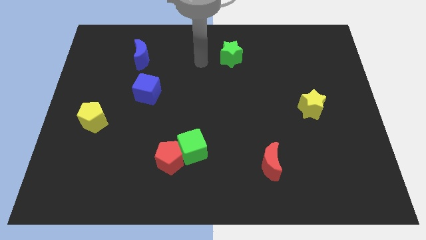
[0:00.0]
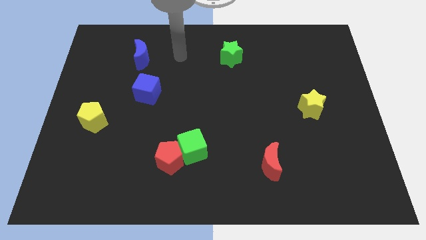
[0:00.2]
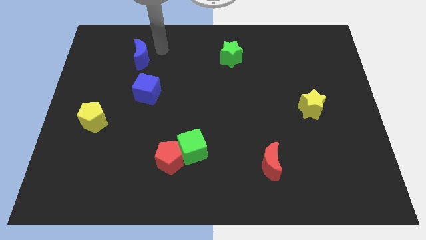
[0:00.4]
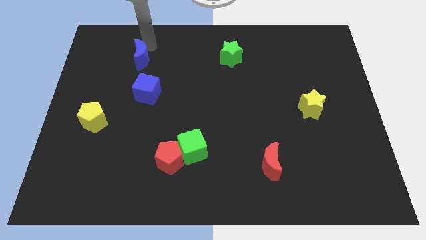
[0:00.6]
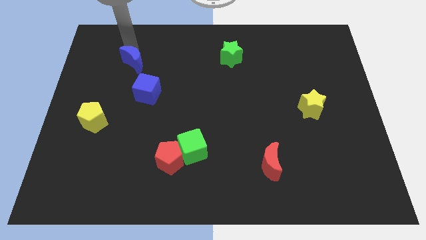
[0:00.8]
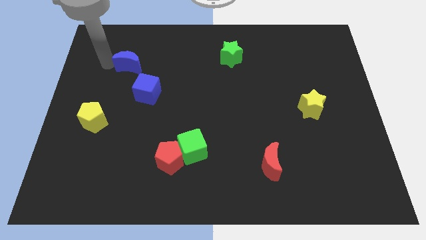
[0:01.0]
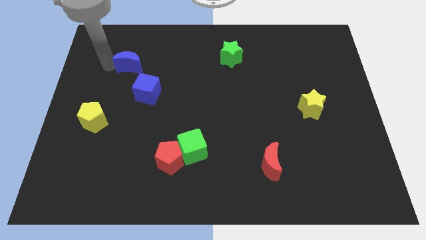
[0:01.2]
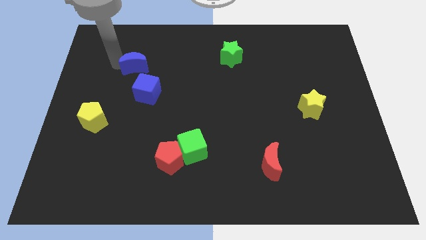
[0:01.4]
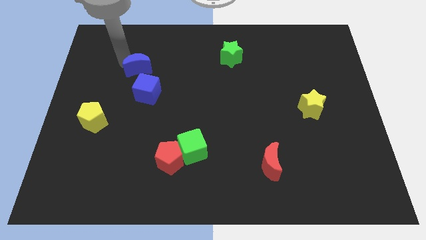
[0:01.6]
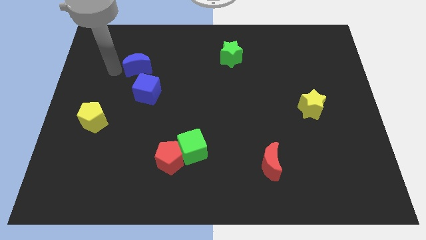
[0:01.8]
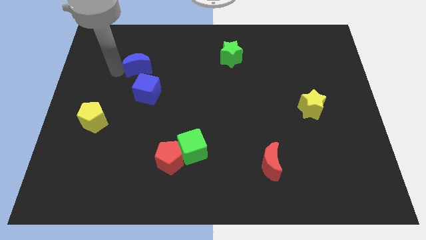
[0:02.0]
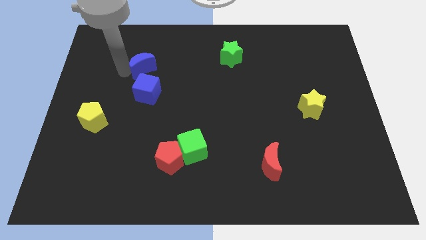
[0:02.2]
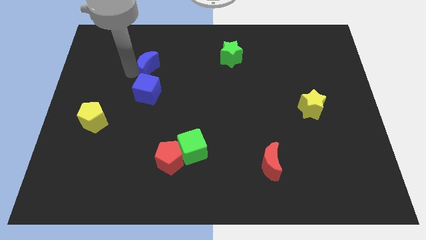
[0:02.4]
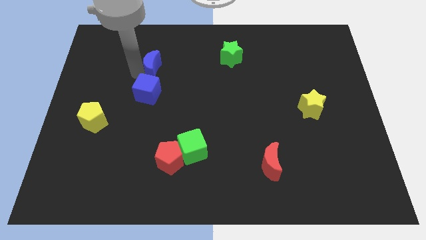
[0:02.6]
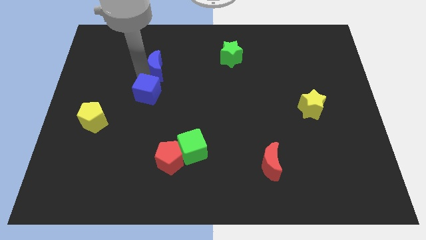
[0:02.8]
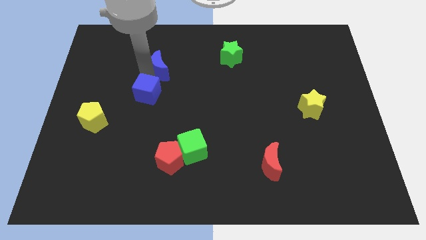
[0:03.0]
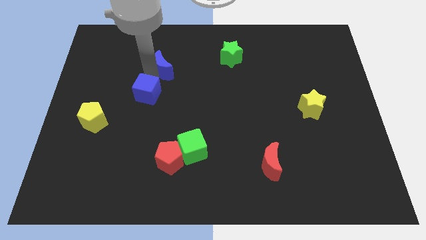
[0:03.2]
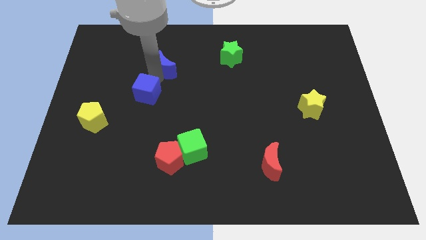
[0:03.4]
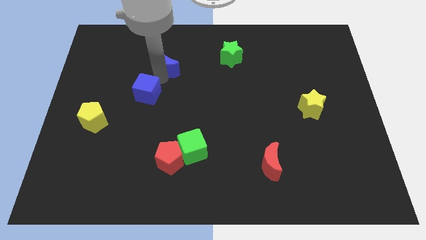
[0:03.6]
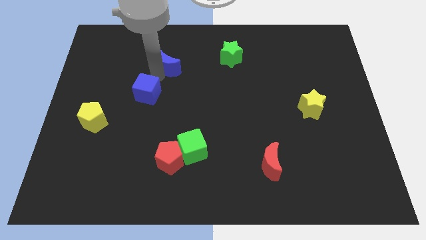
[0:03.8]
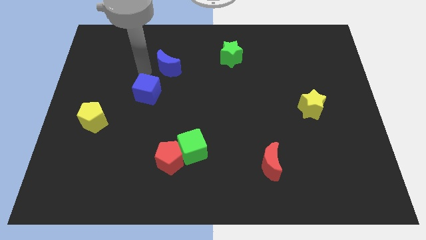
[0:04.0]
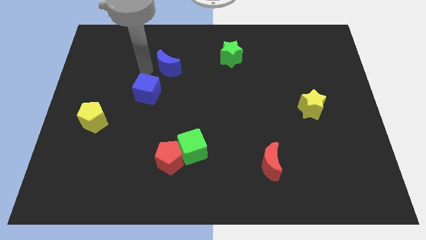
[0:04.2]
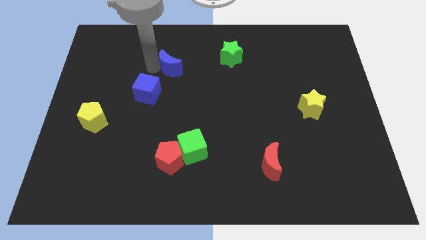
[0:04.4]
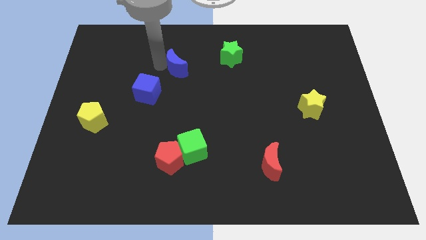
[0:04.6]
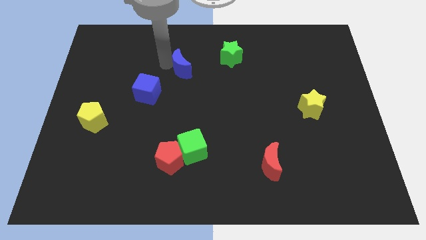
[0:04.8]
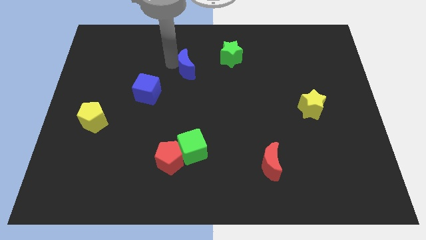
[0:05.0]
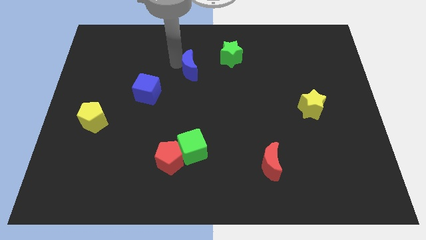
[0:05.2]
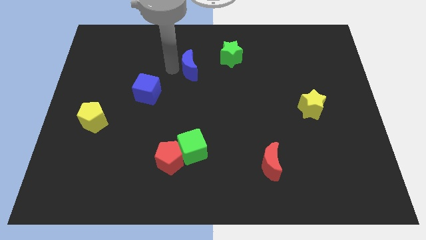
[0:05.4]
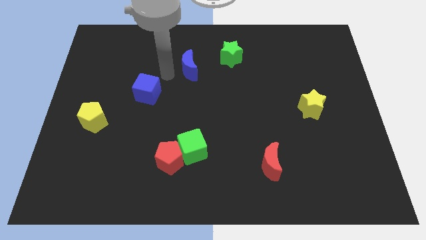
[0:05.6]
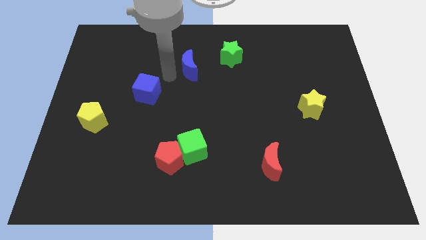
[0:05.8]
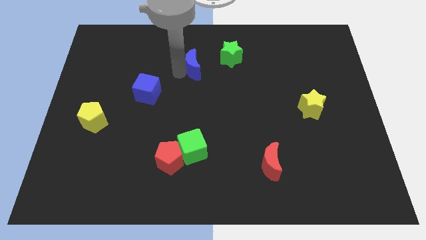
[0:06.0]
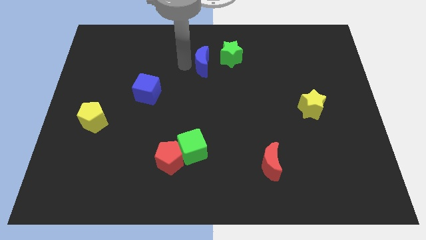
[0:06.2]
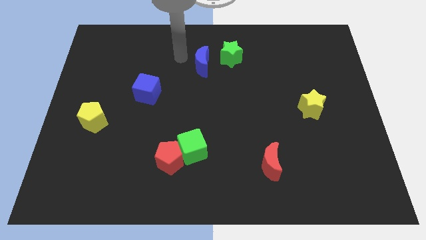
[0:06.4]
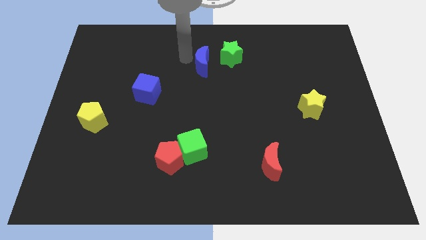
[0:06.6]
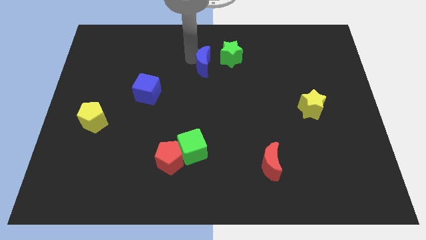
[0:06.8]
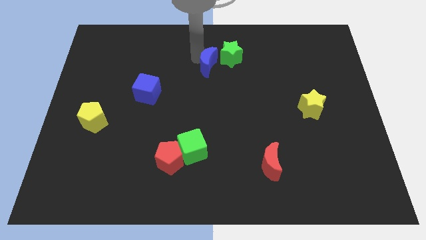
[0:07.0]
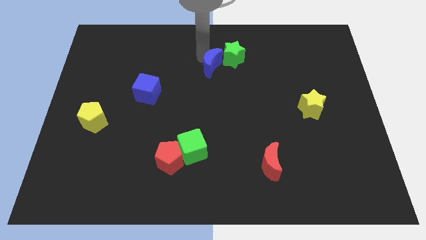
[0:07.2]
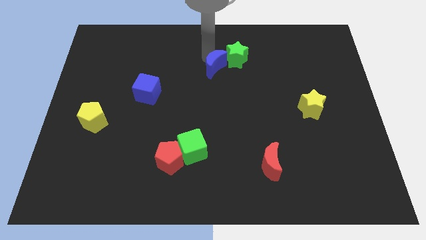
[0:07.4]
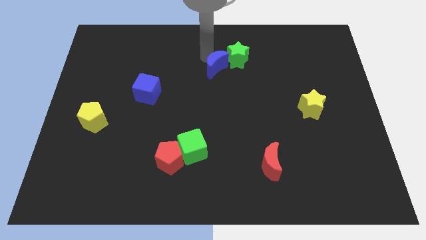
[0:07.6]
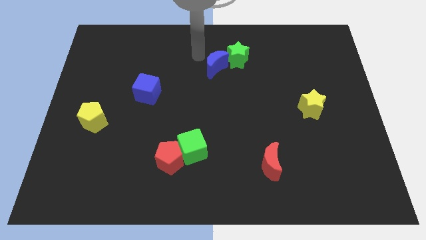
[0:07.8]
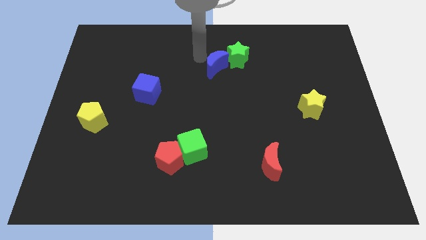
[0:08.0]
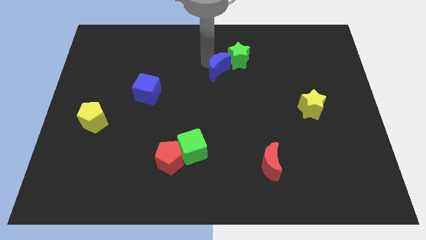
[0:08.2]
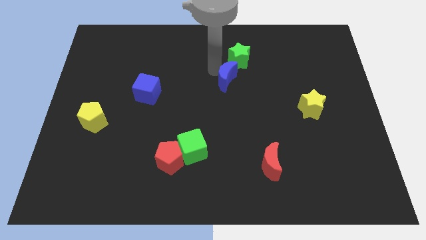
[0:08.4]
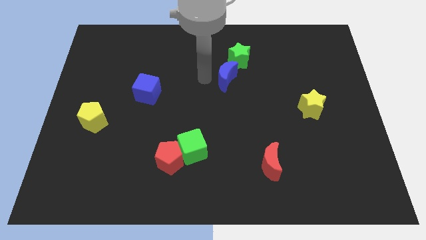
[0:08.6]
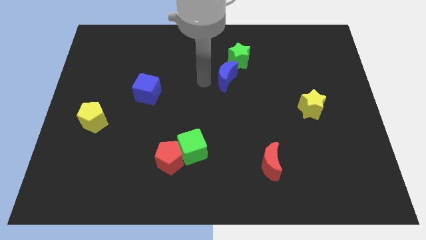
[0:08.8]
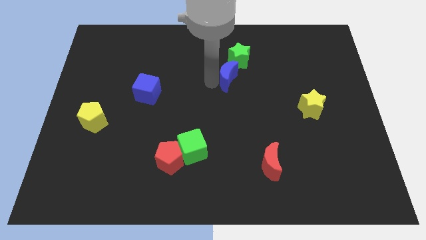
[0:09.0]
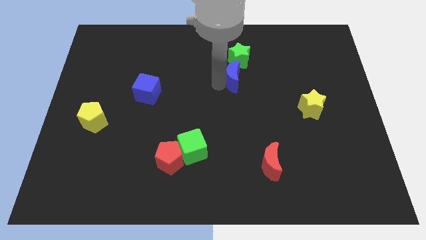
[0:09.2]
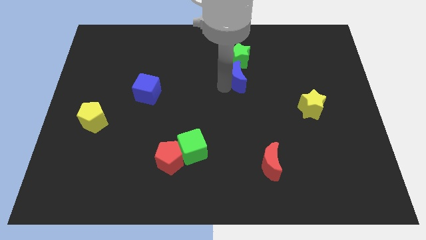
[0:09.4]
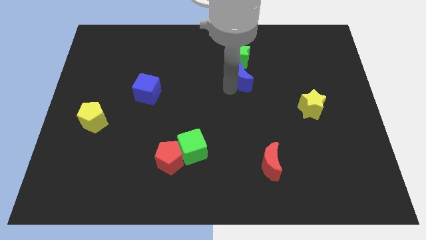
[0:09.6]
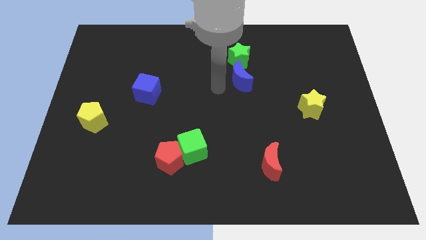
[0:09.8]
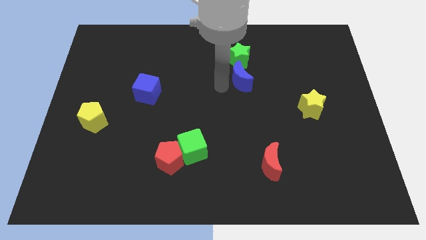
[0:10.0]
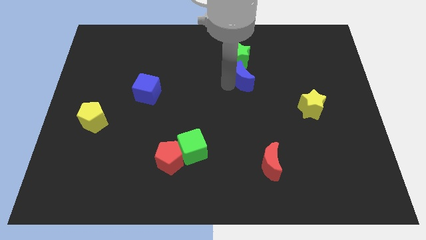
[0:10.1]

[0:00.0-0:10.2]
push the blue moon diagonally down and to the right of the green star

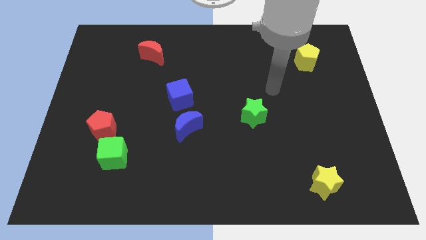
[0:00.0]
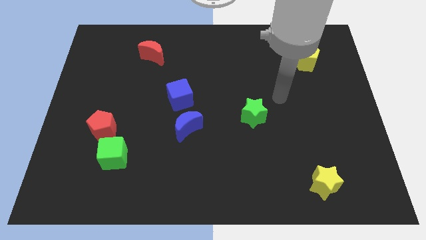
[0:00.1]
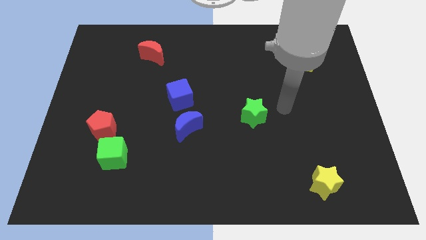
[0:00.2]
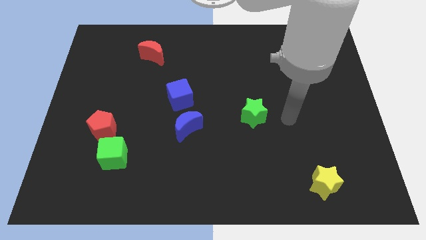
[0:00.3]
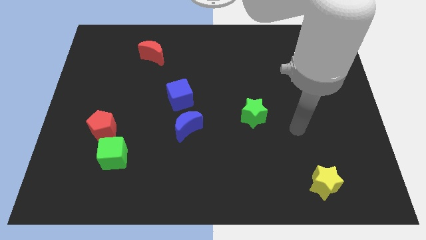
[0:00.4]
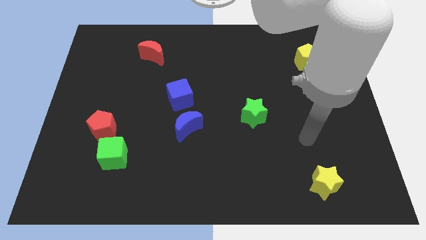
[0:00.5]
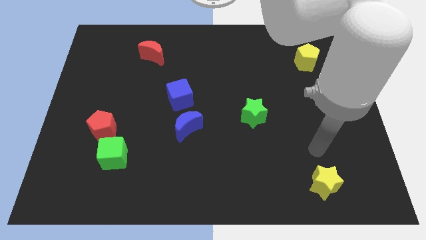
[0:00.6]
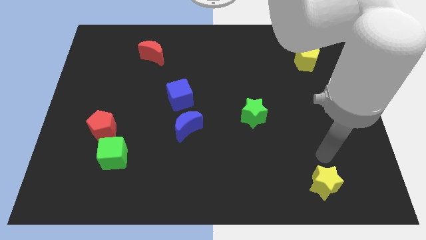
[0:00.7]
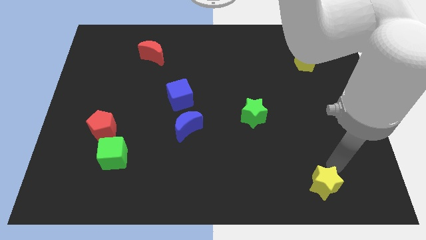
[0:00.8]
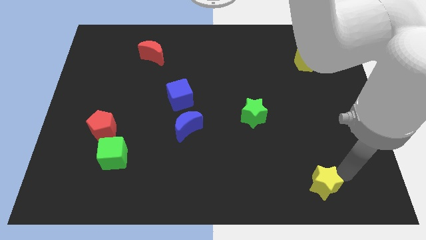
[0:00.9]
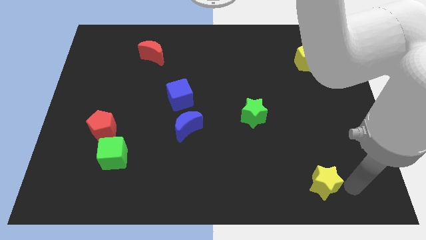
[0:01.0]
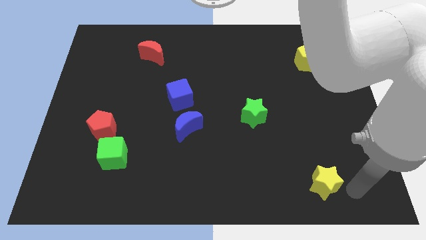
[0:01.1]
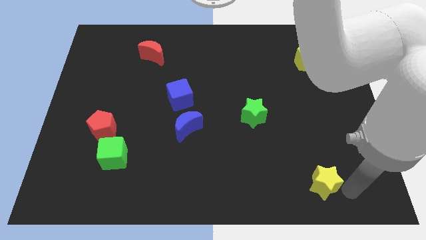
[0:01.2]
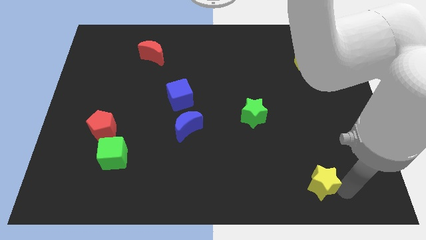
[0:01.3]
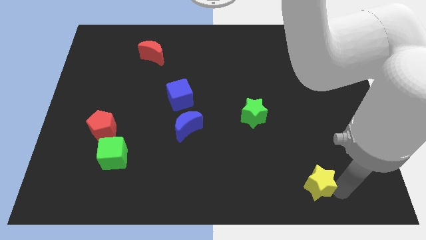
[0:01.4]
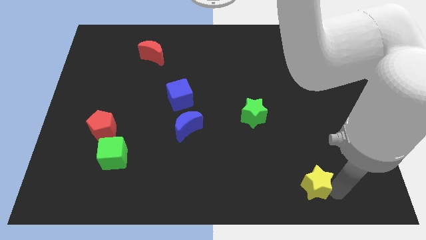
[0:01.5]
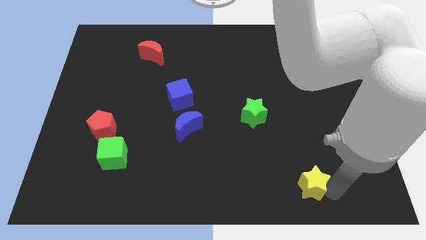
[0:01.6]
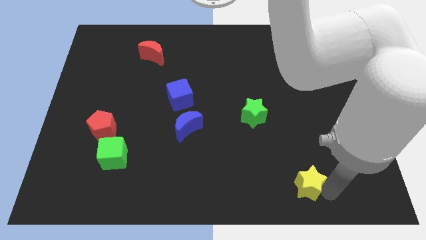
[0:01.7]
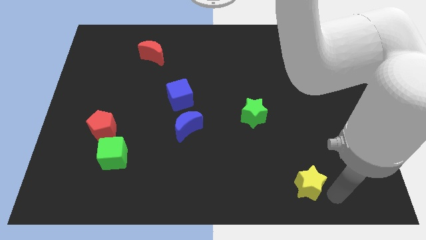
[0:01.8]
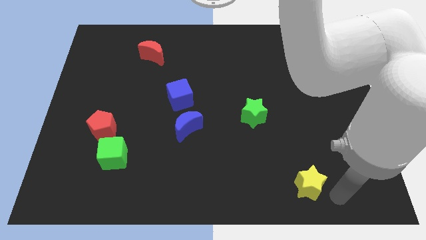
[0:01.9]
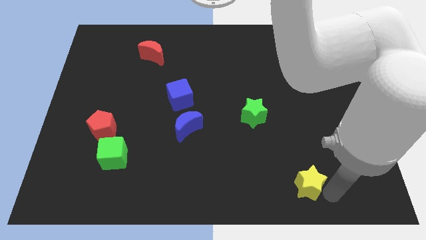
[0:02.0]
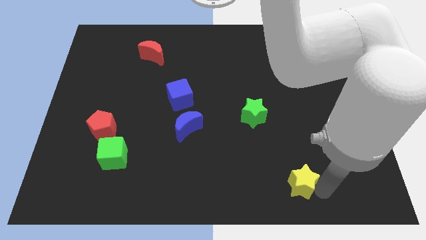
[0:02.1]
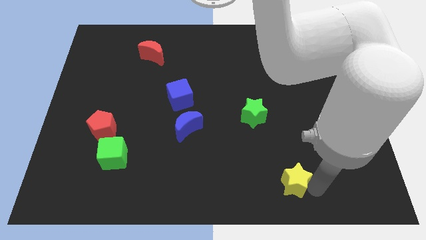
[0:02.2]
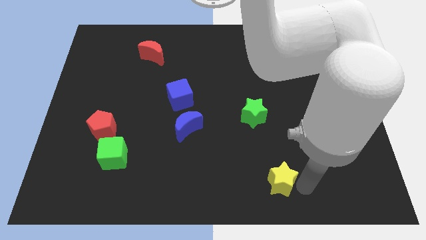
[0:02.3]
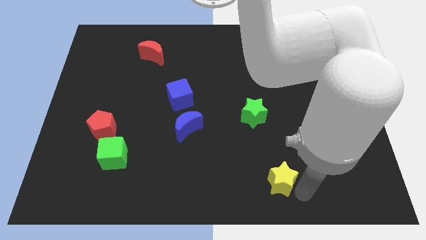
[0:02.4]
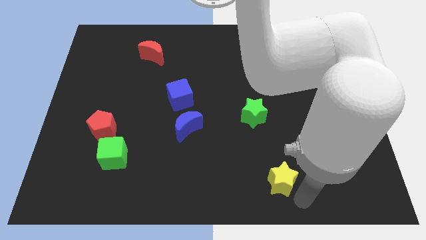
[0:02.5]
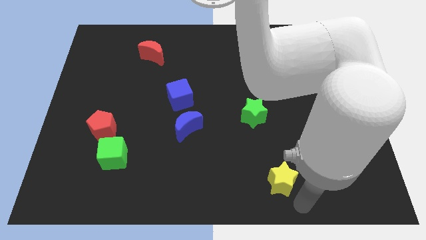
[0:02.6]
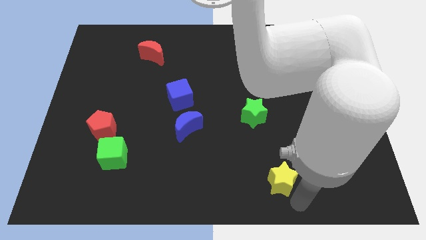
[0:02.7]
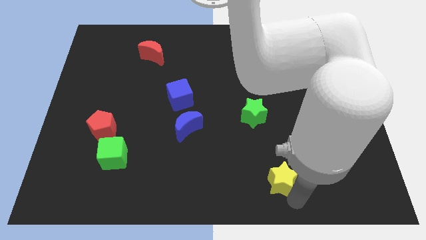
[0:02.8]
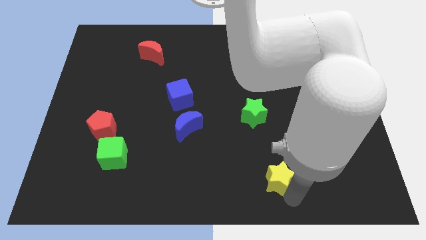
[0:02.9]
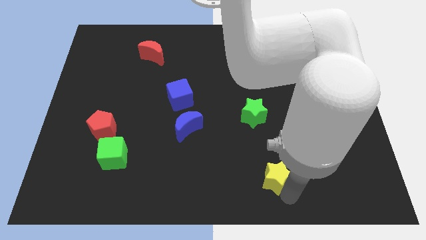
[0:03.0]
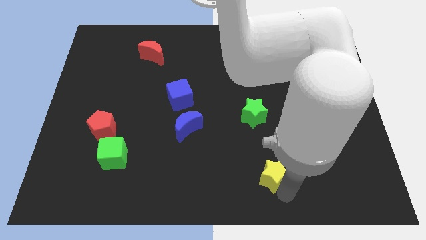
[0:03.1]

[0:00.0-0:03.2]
move the yellow star below the green star
